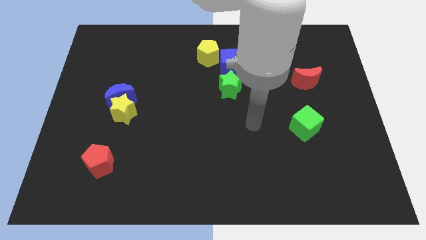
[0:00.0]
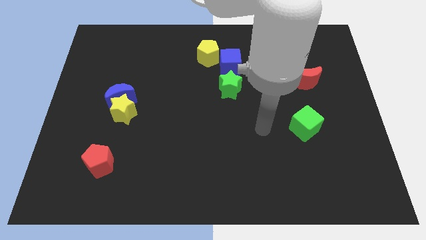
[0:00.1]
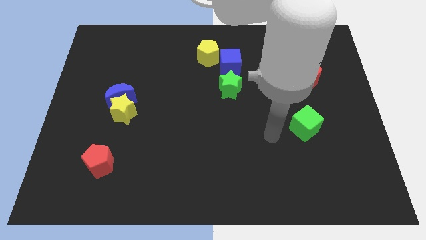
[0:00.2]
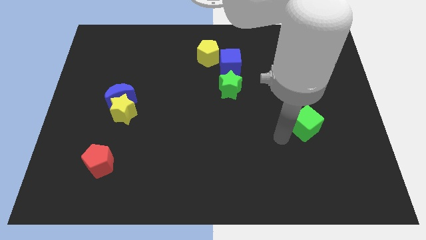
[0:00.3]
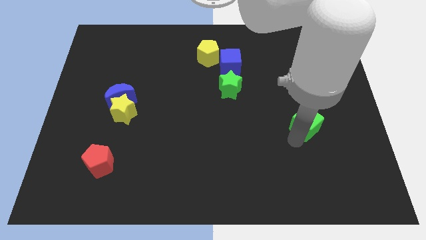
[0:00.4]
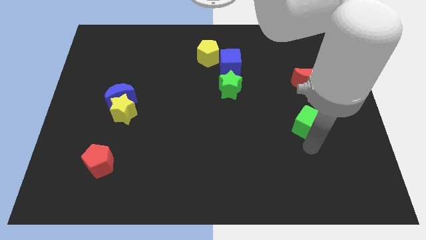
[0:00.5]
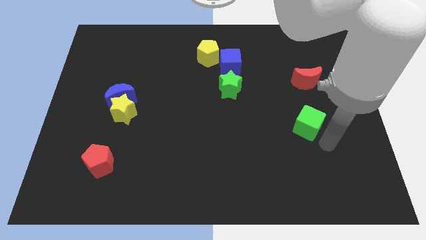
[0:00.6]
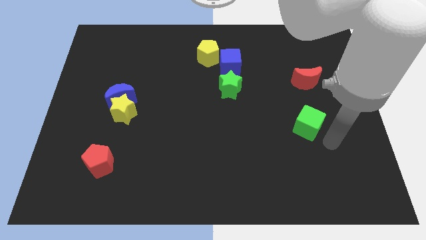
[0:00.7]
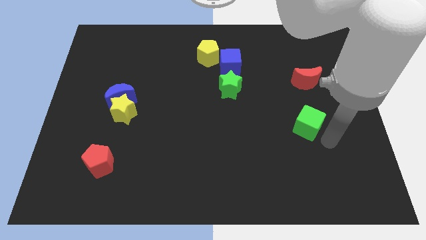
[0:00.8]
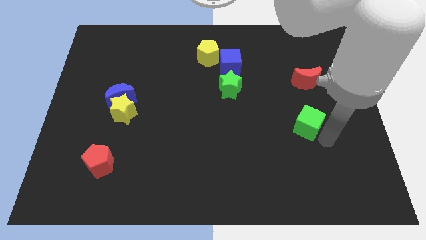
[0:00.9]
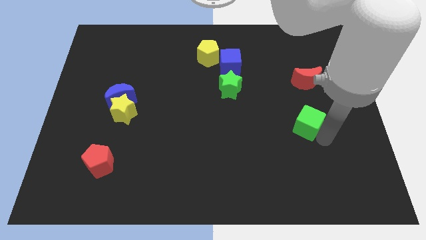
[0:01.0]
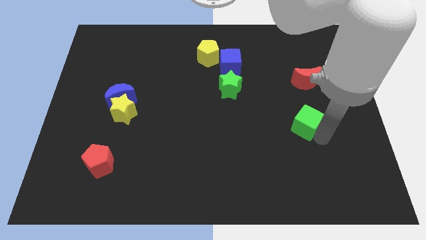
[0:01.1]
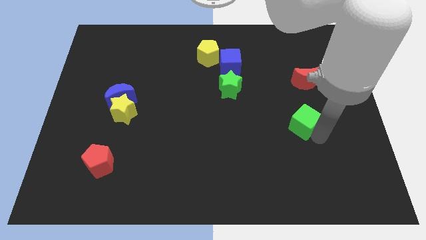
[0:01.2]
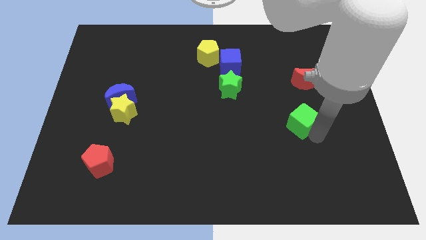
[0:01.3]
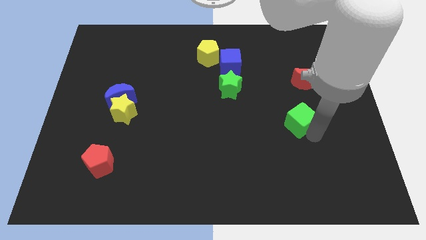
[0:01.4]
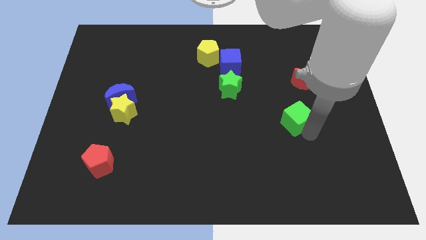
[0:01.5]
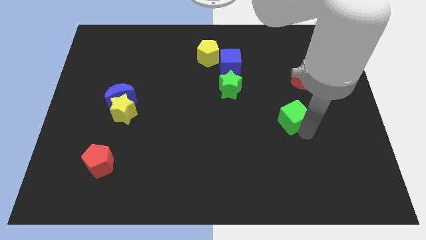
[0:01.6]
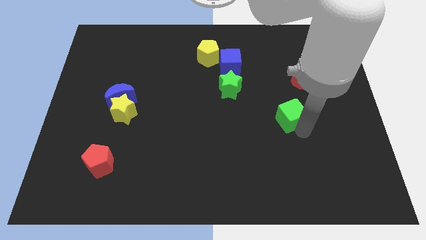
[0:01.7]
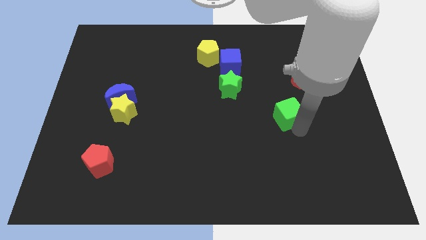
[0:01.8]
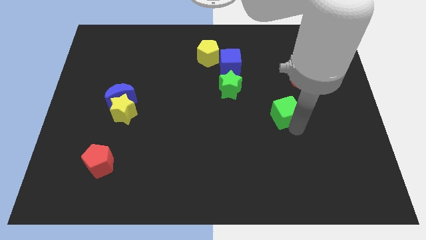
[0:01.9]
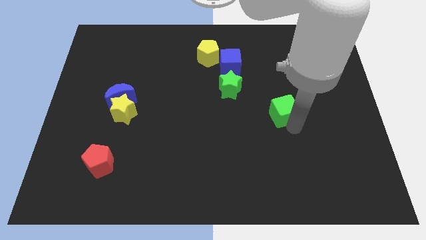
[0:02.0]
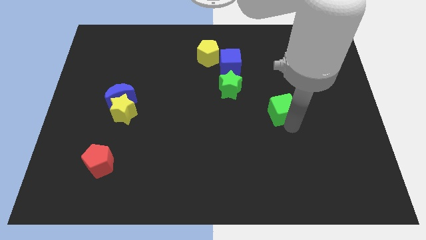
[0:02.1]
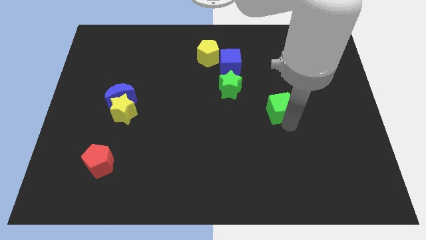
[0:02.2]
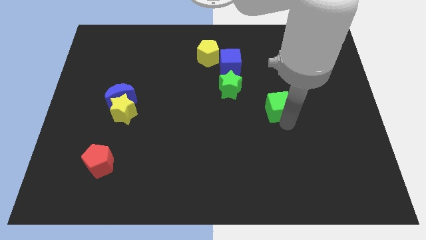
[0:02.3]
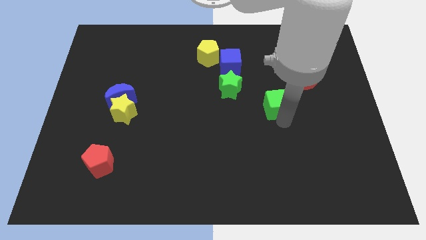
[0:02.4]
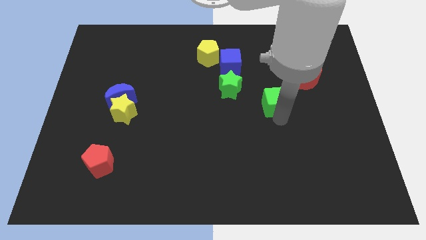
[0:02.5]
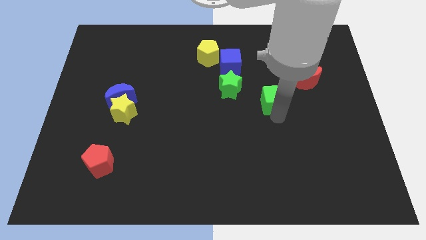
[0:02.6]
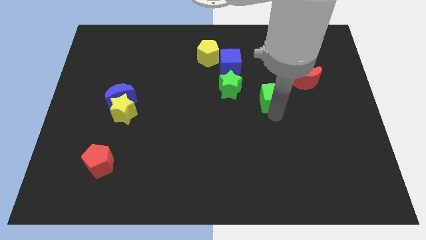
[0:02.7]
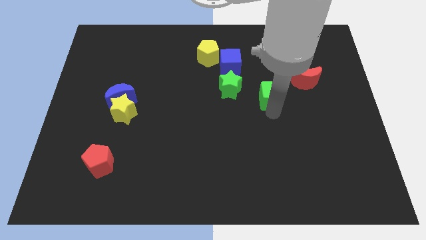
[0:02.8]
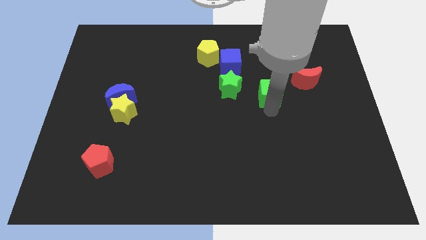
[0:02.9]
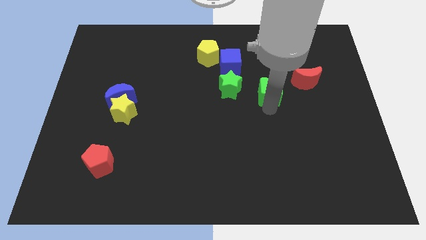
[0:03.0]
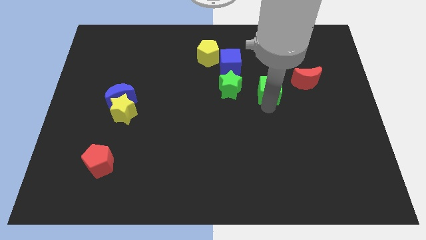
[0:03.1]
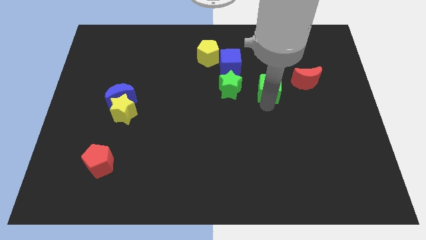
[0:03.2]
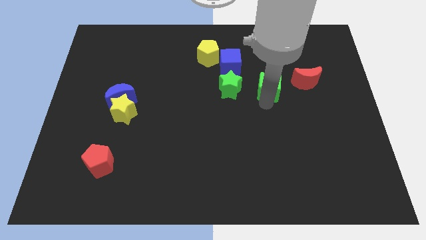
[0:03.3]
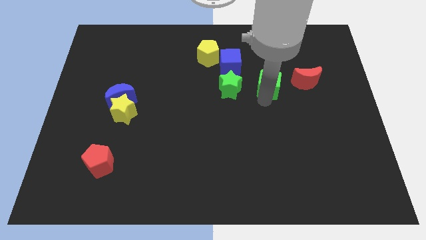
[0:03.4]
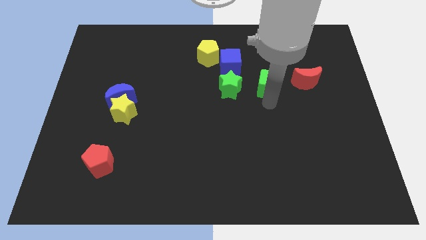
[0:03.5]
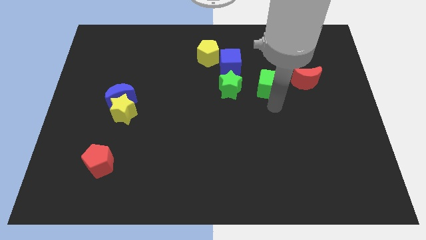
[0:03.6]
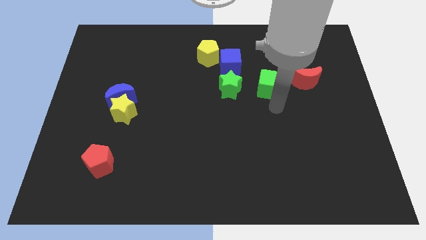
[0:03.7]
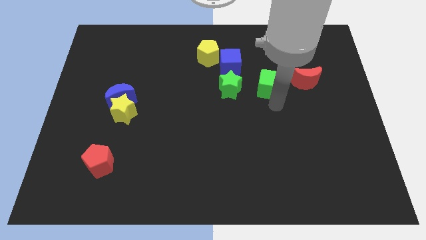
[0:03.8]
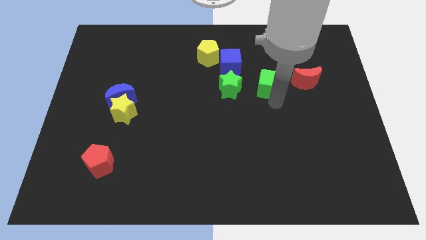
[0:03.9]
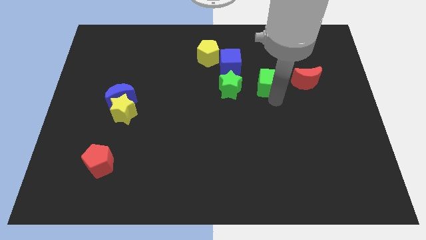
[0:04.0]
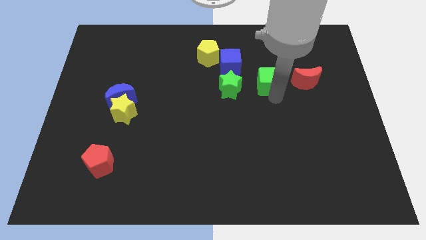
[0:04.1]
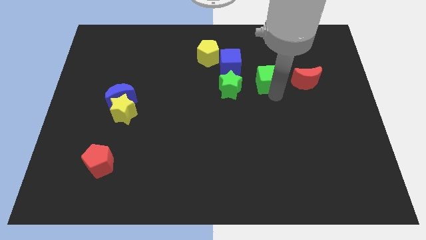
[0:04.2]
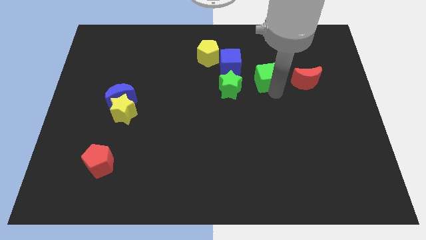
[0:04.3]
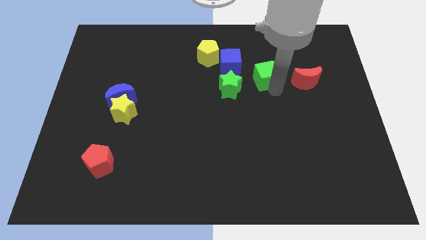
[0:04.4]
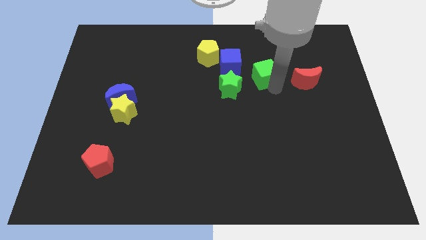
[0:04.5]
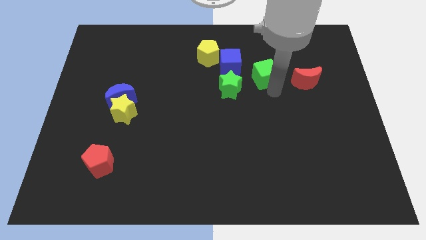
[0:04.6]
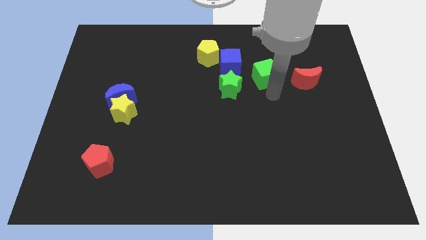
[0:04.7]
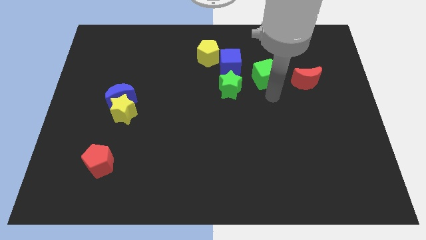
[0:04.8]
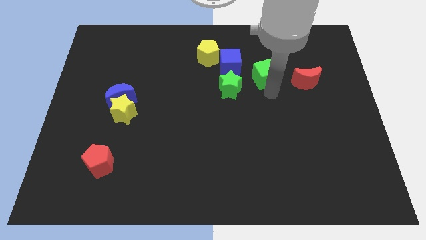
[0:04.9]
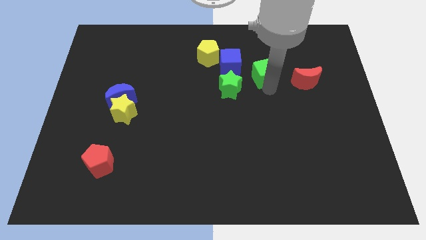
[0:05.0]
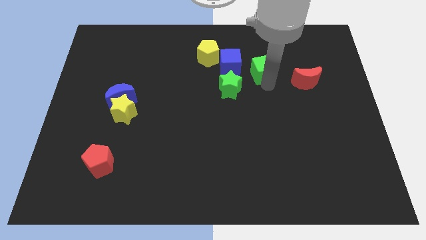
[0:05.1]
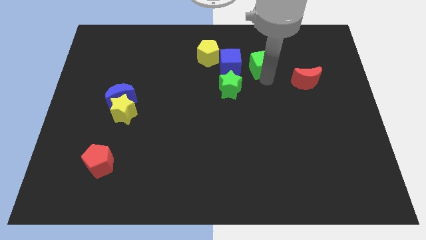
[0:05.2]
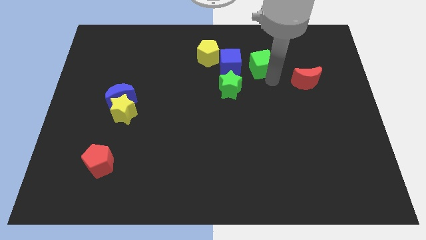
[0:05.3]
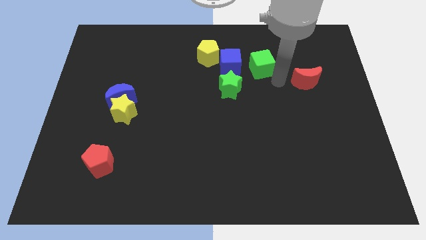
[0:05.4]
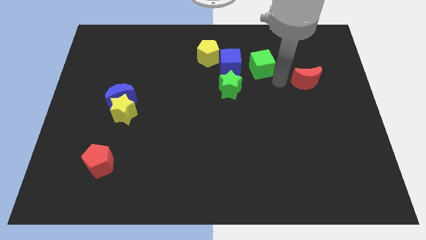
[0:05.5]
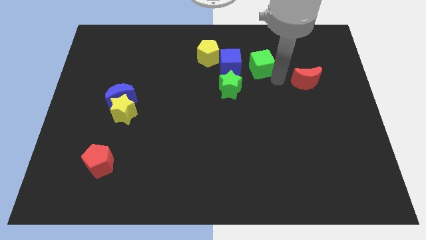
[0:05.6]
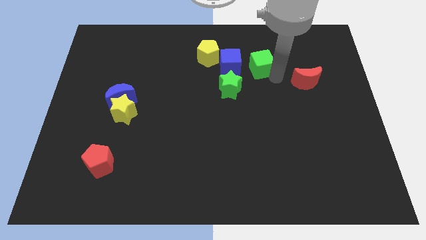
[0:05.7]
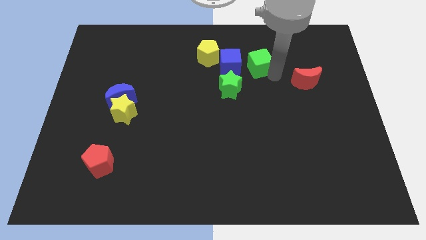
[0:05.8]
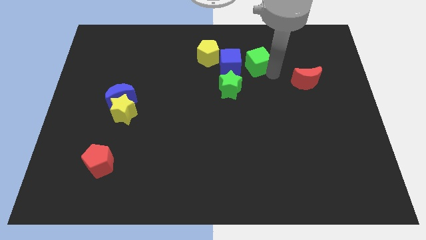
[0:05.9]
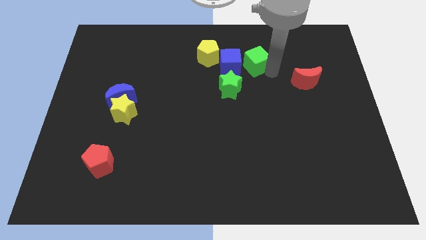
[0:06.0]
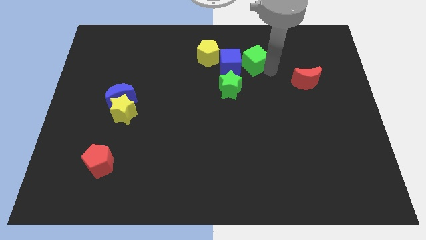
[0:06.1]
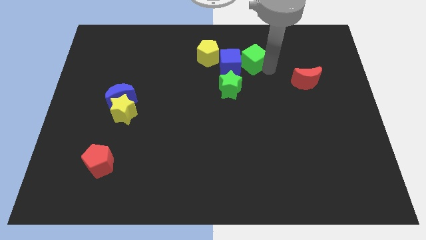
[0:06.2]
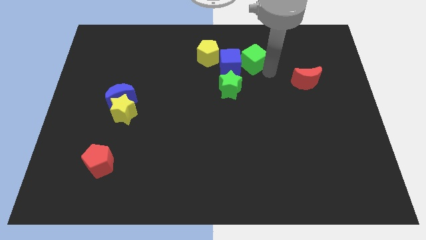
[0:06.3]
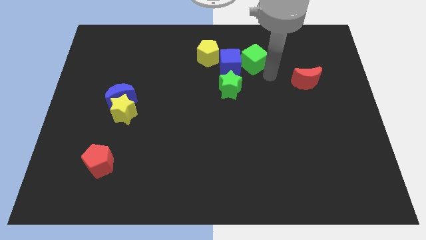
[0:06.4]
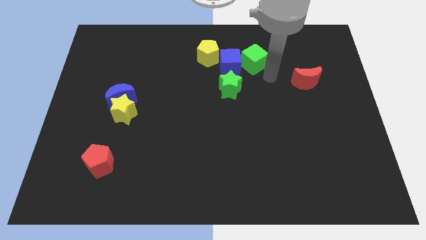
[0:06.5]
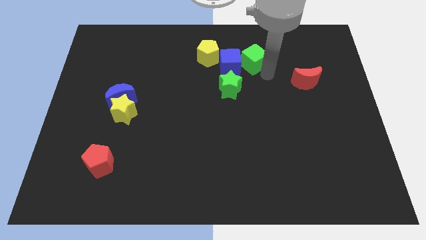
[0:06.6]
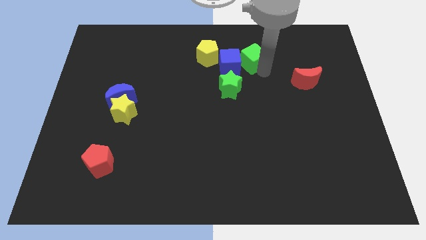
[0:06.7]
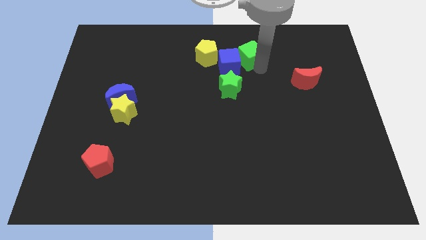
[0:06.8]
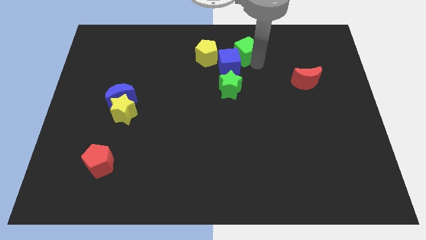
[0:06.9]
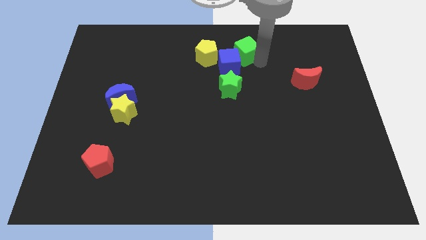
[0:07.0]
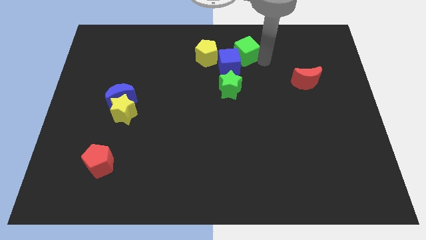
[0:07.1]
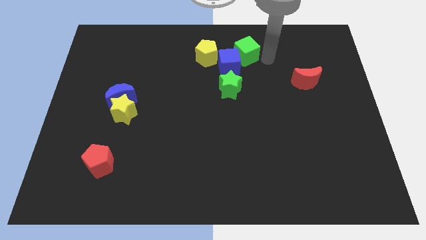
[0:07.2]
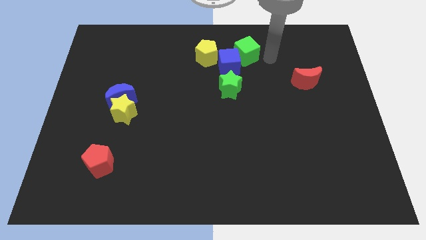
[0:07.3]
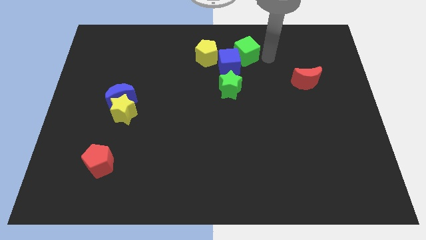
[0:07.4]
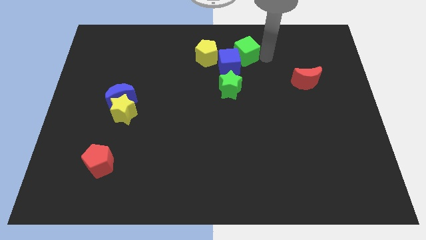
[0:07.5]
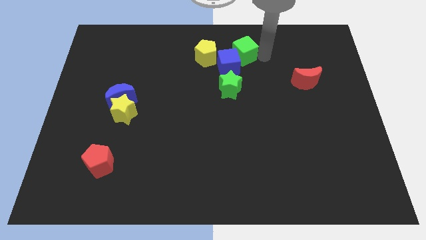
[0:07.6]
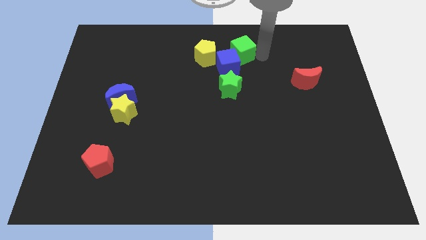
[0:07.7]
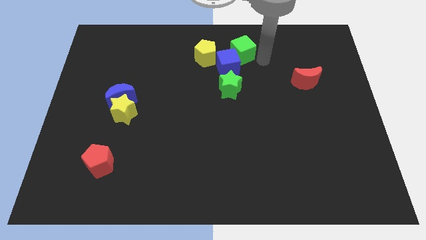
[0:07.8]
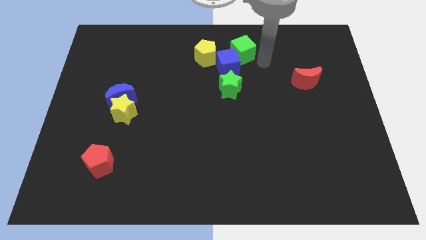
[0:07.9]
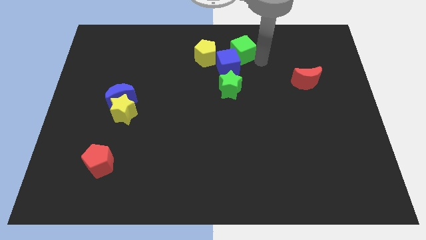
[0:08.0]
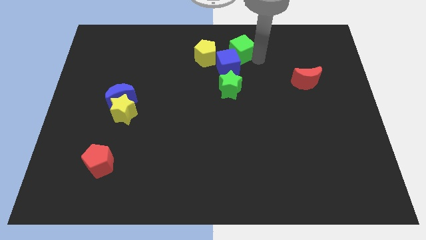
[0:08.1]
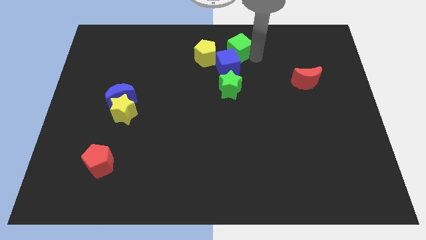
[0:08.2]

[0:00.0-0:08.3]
push the green cube to the top side

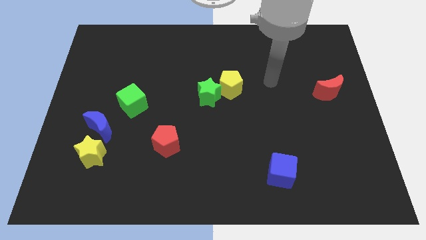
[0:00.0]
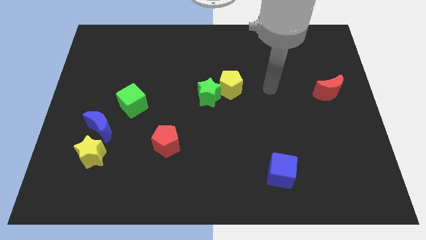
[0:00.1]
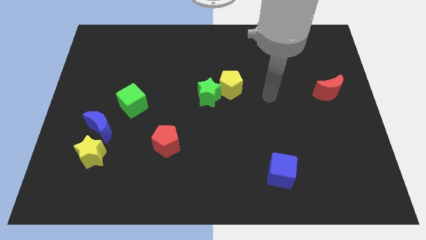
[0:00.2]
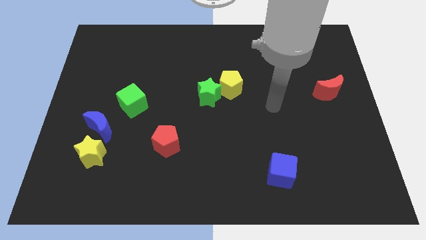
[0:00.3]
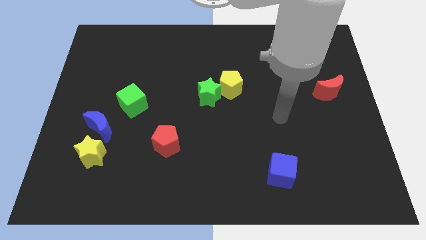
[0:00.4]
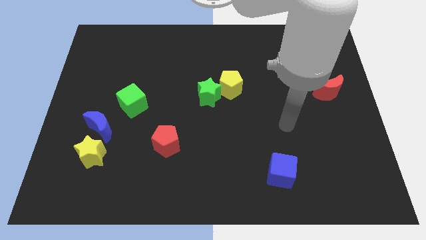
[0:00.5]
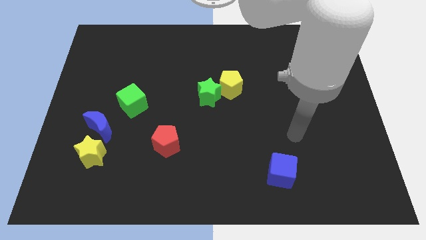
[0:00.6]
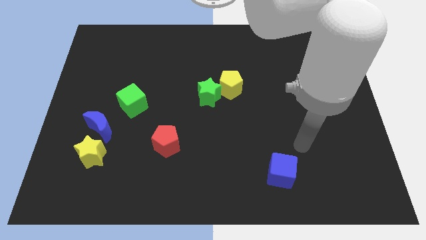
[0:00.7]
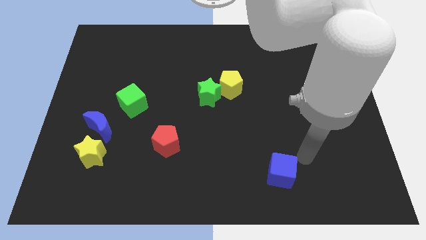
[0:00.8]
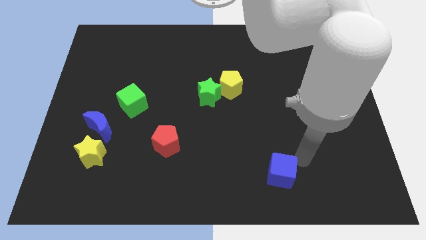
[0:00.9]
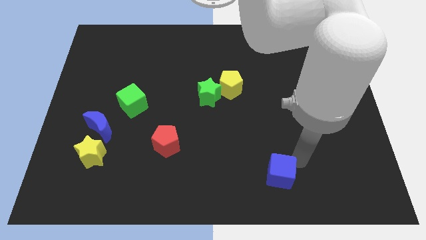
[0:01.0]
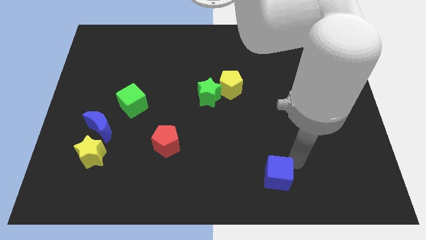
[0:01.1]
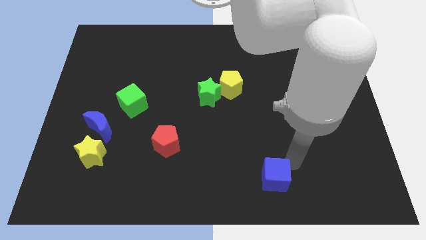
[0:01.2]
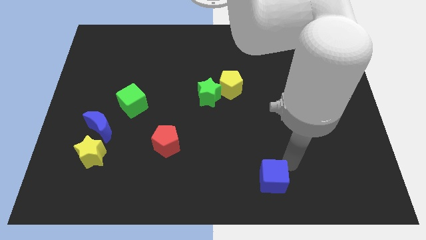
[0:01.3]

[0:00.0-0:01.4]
push the blue cube to the bottom
